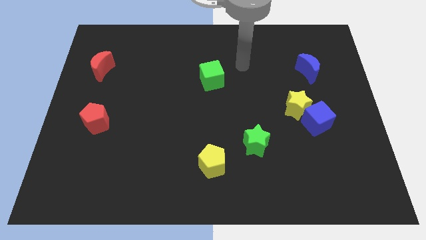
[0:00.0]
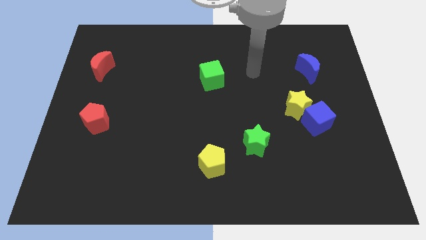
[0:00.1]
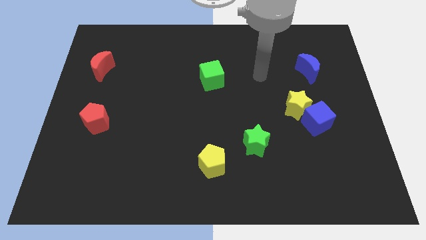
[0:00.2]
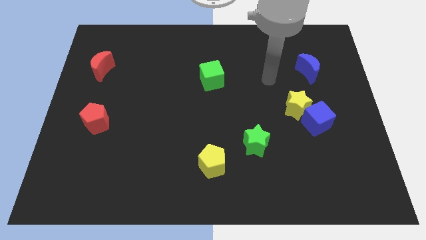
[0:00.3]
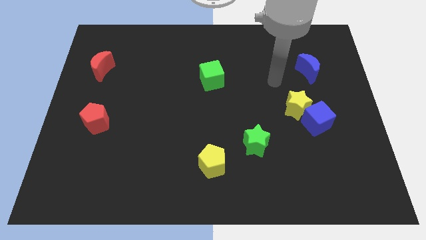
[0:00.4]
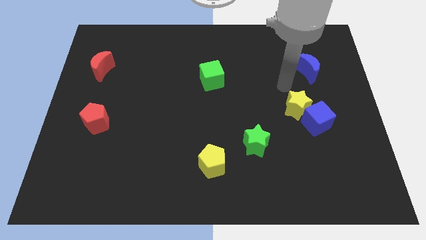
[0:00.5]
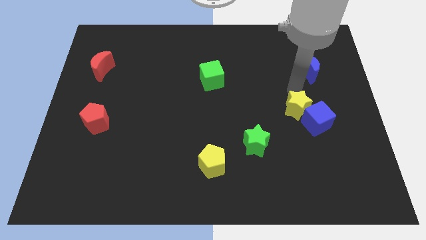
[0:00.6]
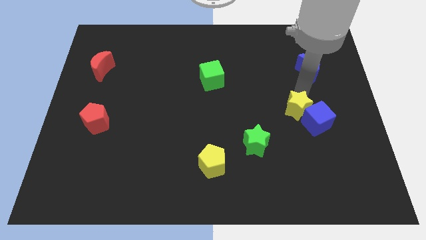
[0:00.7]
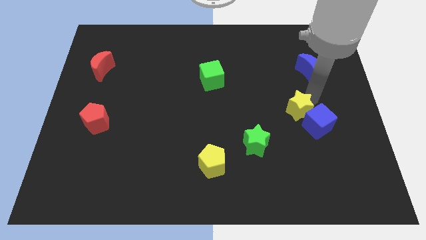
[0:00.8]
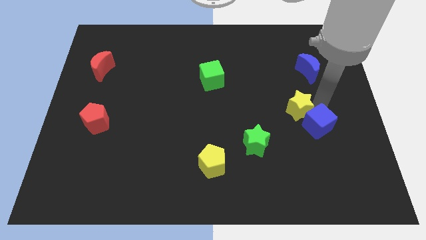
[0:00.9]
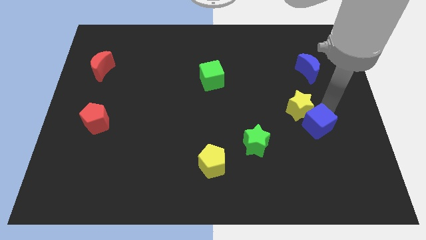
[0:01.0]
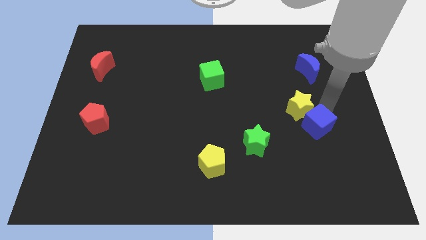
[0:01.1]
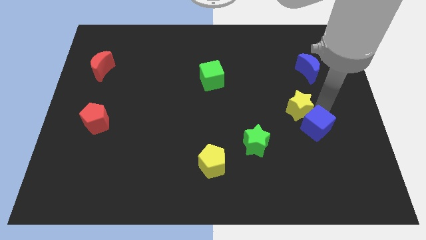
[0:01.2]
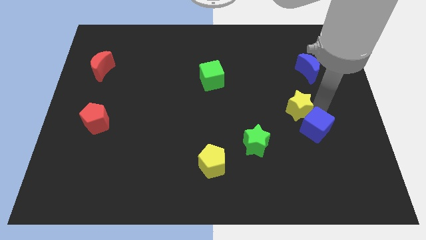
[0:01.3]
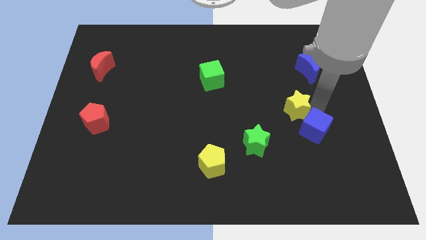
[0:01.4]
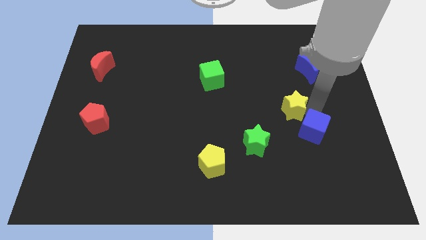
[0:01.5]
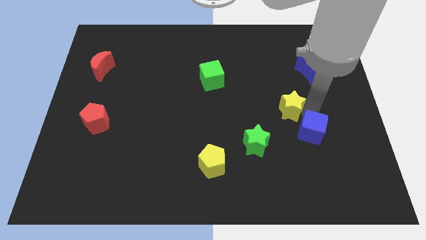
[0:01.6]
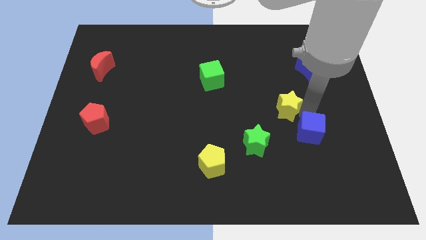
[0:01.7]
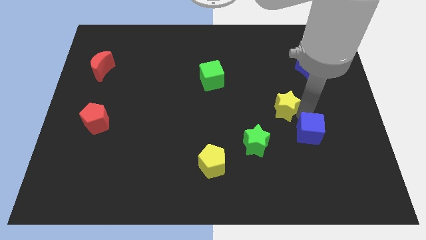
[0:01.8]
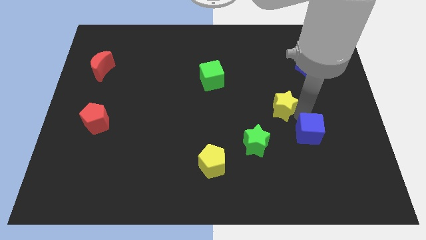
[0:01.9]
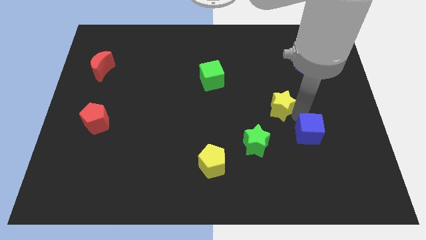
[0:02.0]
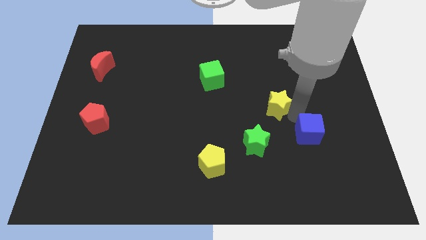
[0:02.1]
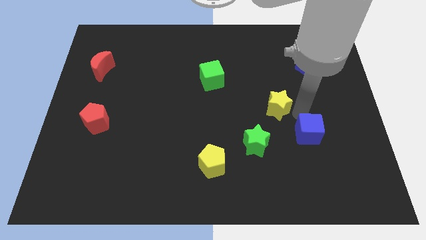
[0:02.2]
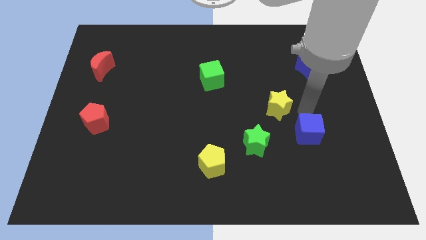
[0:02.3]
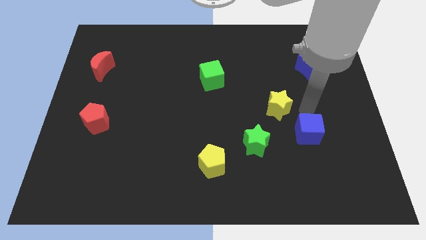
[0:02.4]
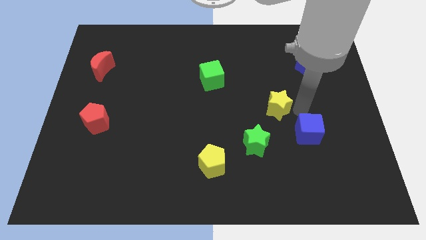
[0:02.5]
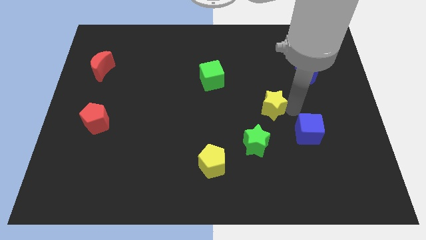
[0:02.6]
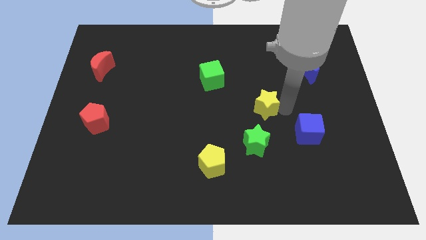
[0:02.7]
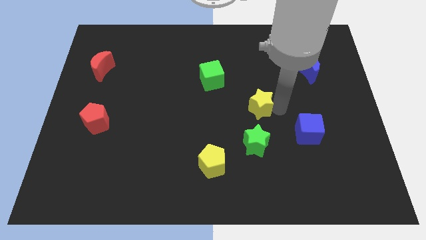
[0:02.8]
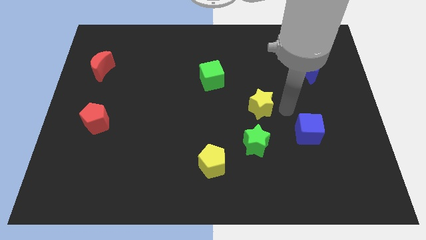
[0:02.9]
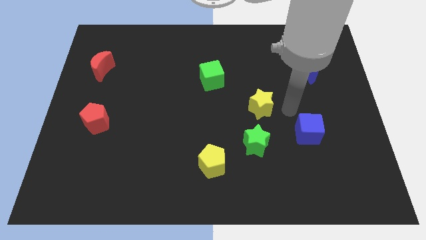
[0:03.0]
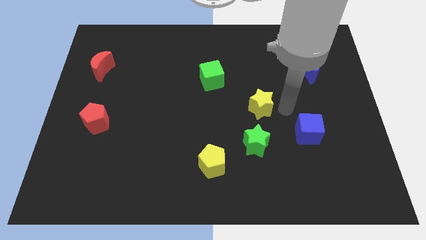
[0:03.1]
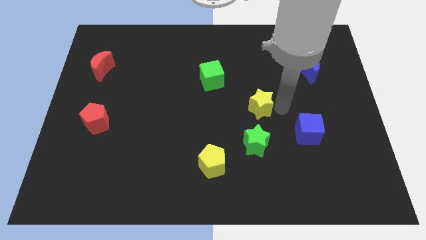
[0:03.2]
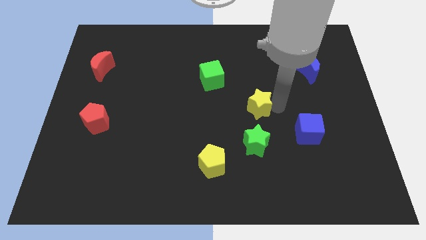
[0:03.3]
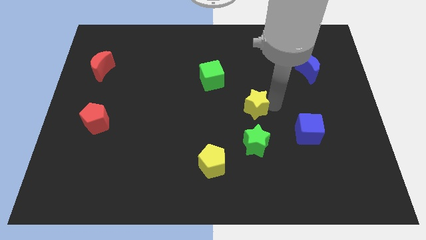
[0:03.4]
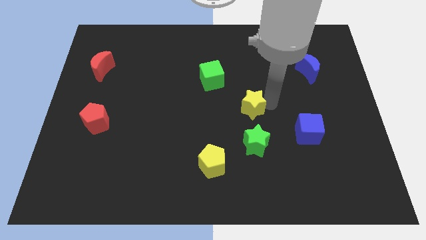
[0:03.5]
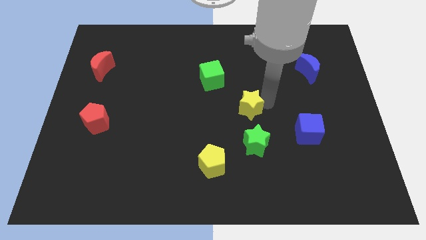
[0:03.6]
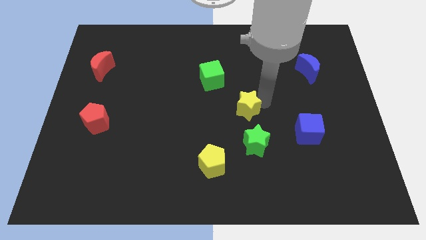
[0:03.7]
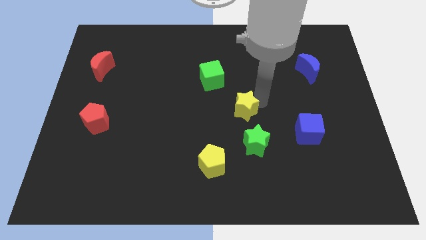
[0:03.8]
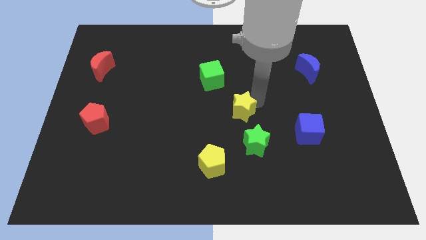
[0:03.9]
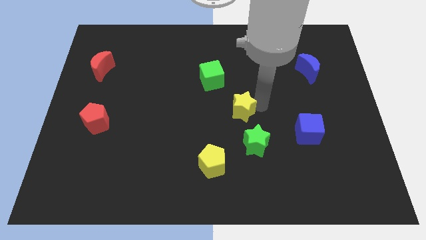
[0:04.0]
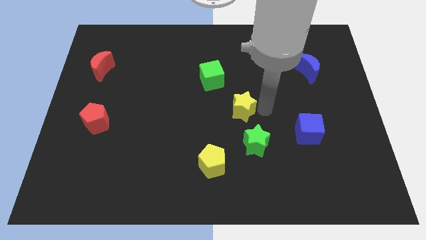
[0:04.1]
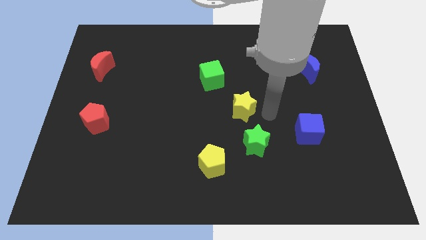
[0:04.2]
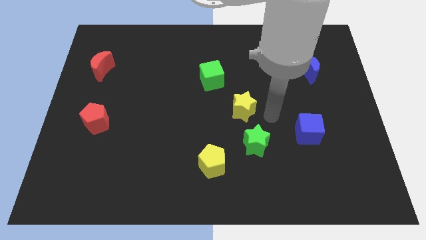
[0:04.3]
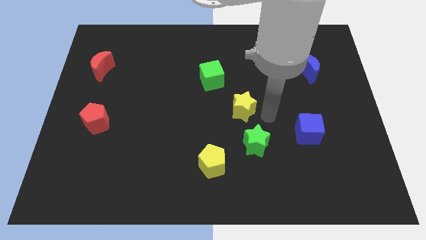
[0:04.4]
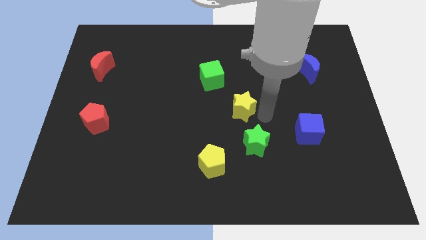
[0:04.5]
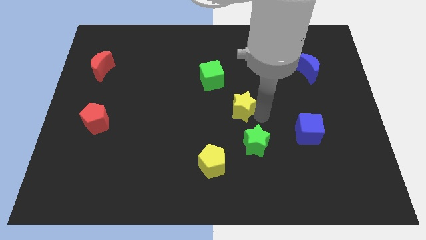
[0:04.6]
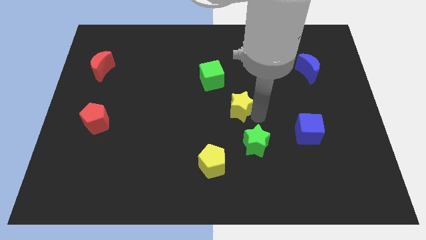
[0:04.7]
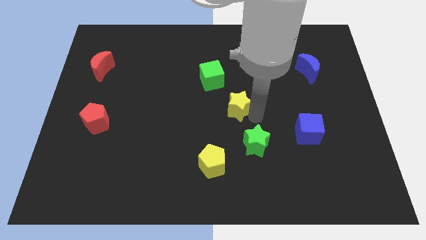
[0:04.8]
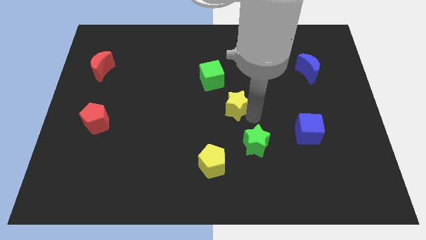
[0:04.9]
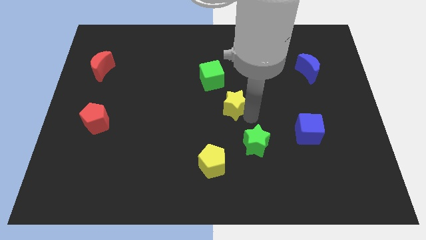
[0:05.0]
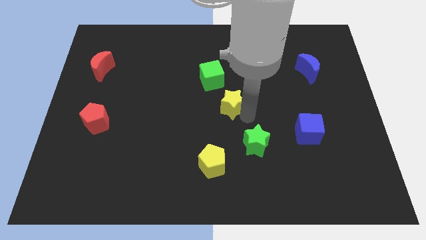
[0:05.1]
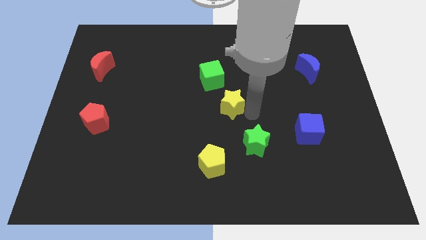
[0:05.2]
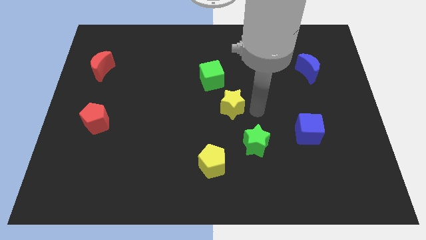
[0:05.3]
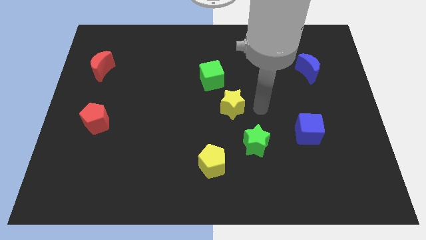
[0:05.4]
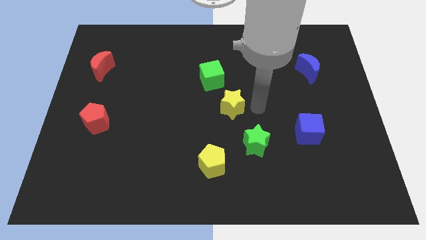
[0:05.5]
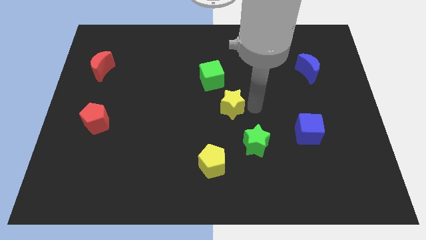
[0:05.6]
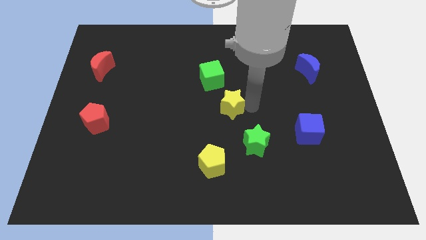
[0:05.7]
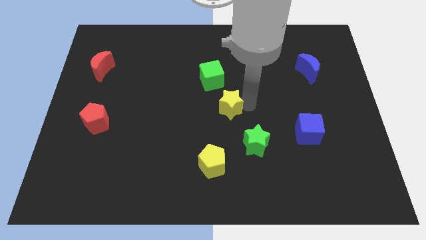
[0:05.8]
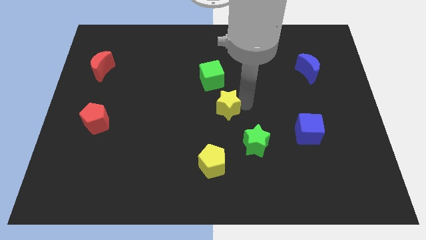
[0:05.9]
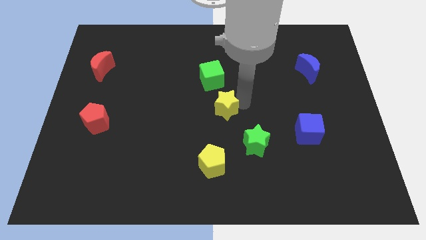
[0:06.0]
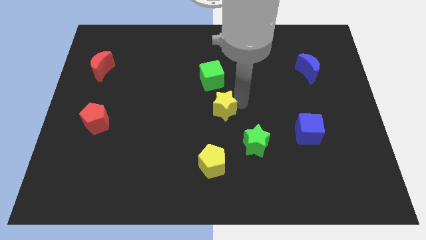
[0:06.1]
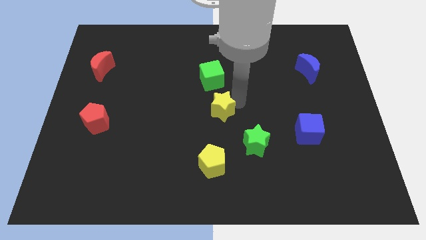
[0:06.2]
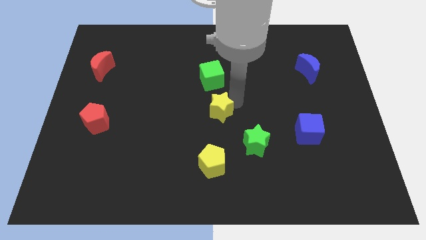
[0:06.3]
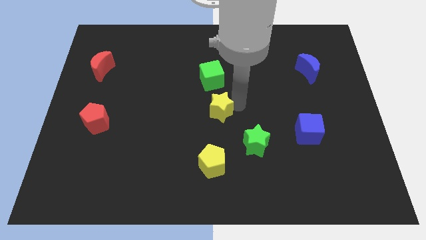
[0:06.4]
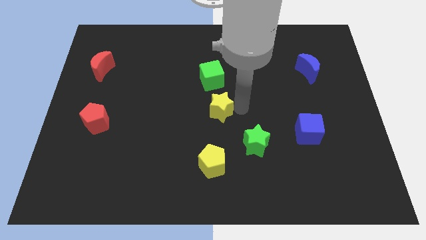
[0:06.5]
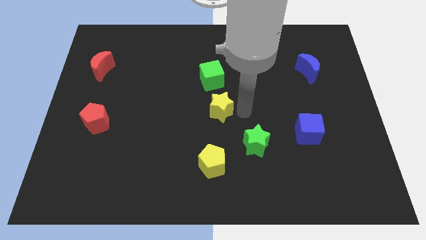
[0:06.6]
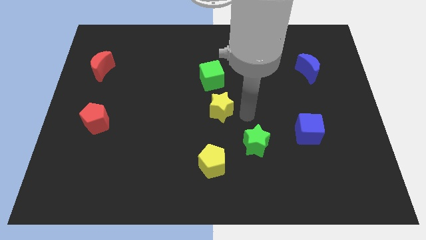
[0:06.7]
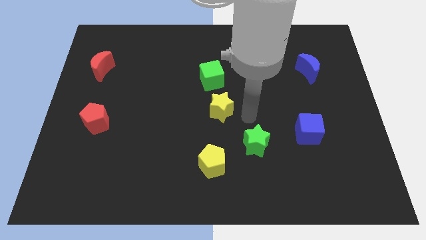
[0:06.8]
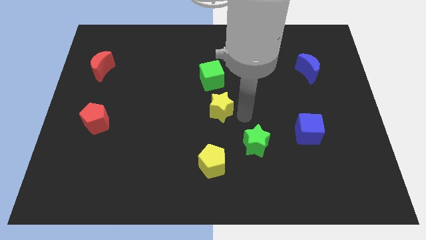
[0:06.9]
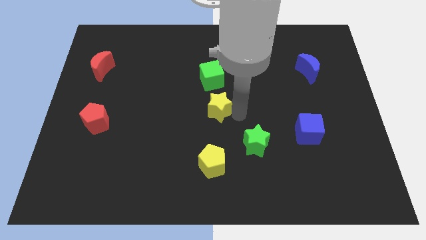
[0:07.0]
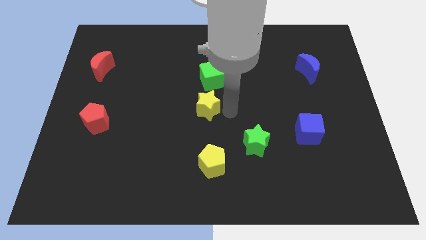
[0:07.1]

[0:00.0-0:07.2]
move the yellow star to the left

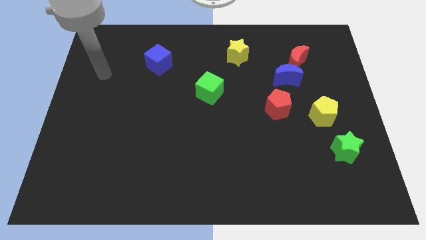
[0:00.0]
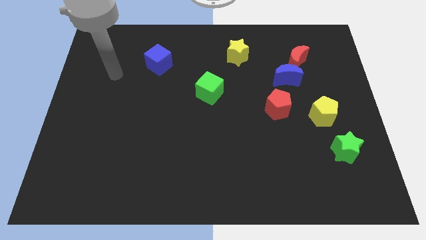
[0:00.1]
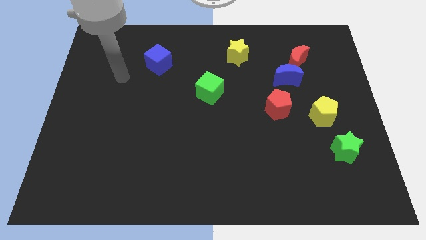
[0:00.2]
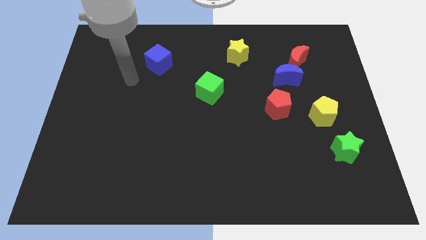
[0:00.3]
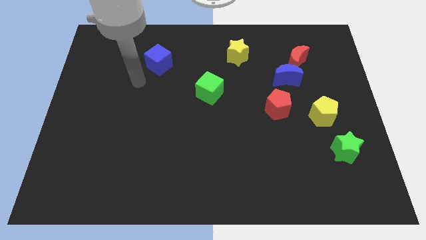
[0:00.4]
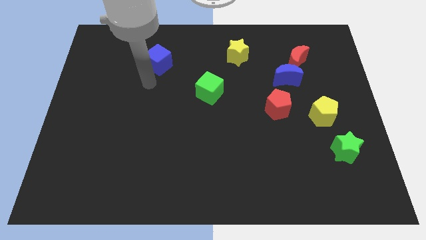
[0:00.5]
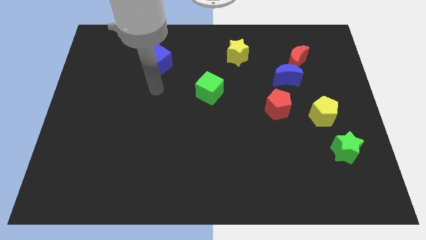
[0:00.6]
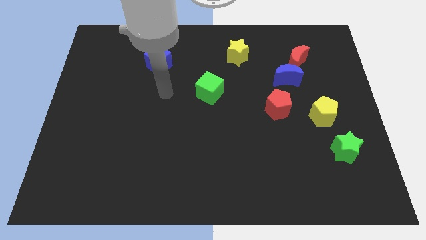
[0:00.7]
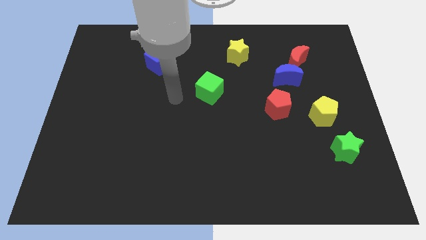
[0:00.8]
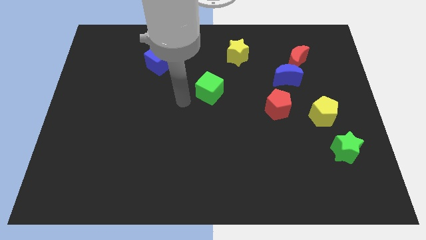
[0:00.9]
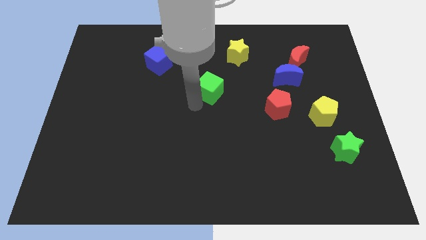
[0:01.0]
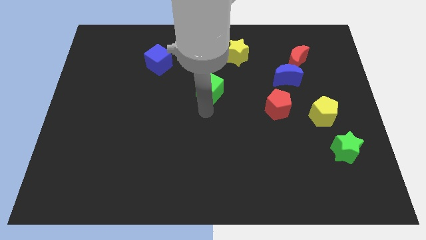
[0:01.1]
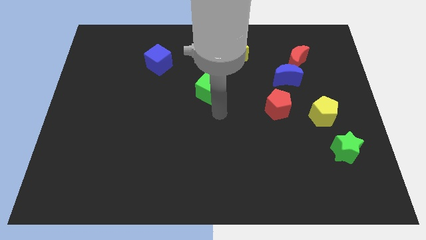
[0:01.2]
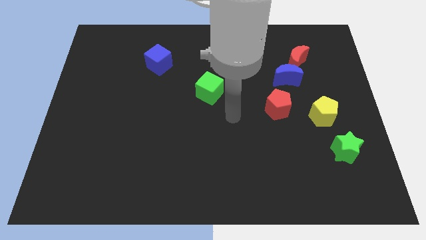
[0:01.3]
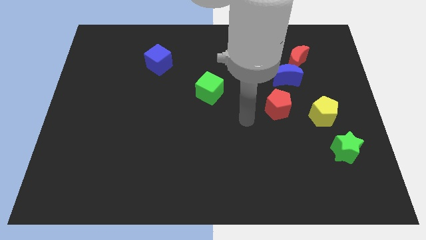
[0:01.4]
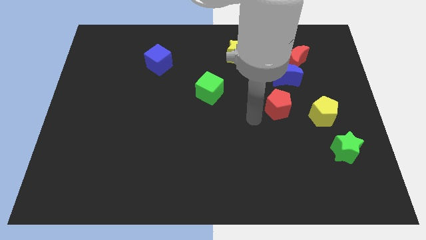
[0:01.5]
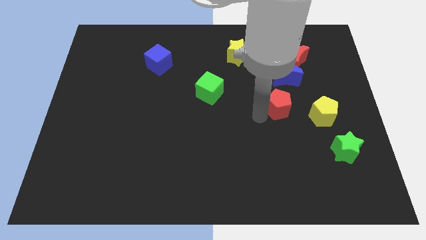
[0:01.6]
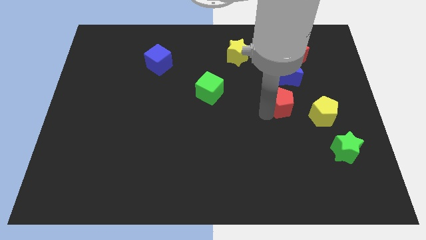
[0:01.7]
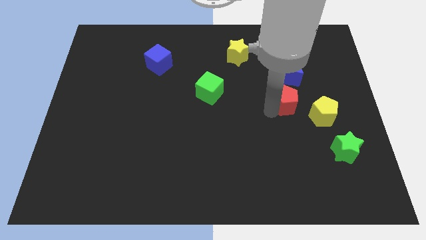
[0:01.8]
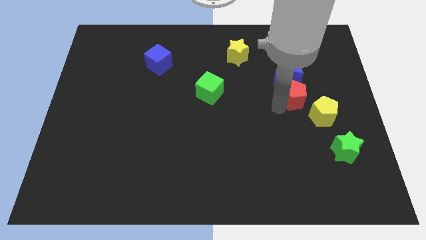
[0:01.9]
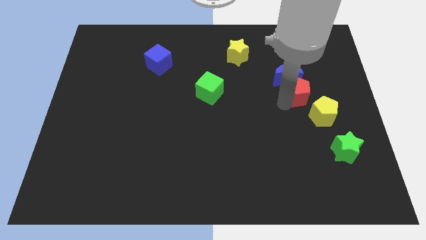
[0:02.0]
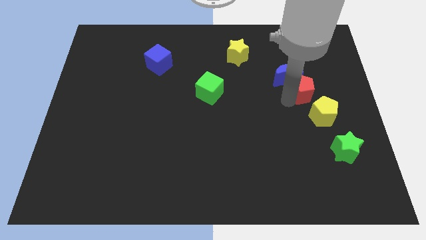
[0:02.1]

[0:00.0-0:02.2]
push the red pentagon a little bit up and right
